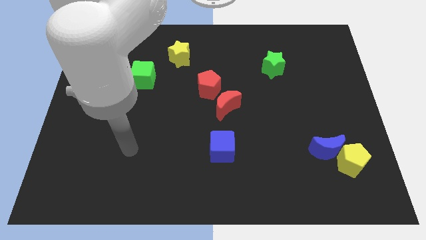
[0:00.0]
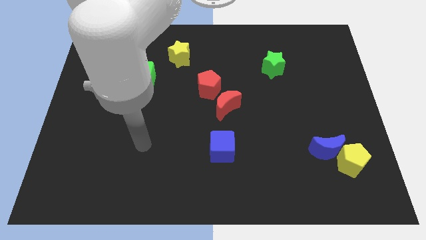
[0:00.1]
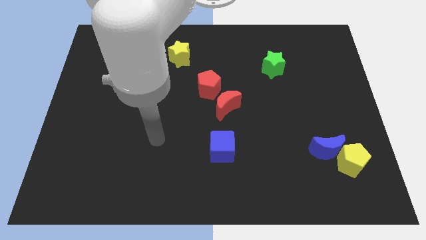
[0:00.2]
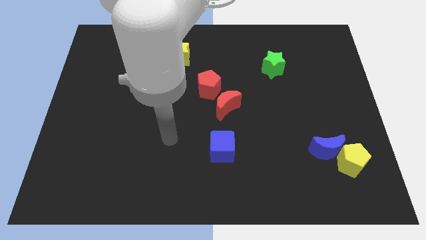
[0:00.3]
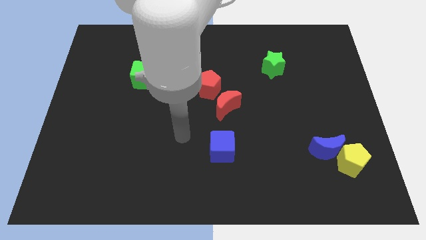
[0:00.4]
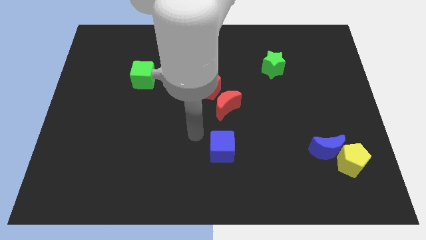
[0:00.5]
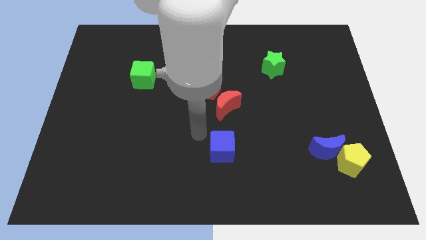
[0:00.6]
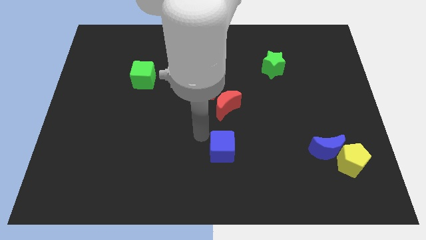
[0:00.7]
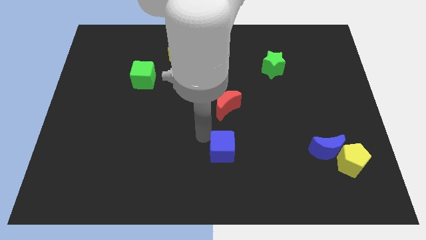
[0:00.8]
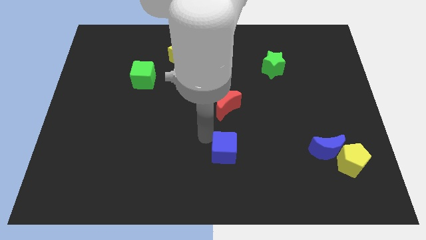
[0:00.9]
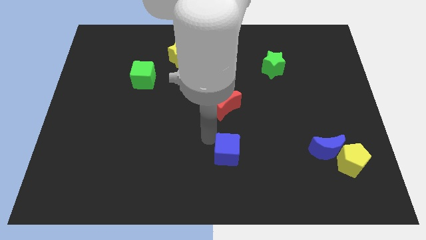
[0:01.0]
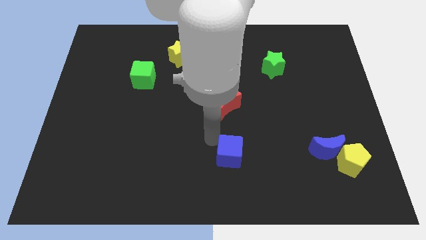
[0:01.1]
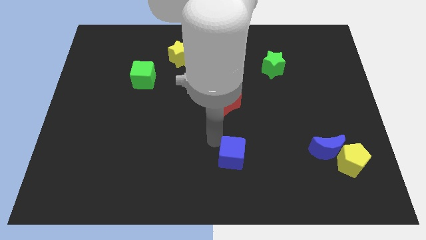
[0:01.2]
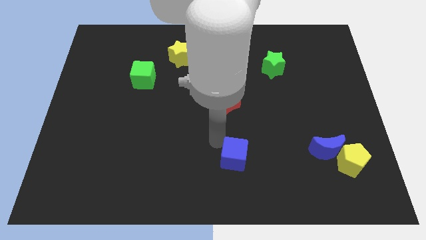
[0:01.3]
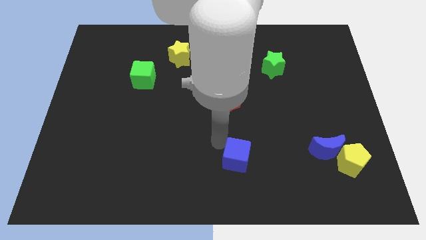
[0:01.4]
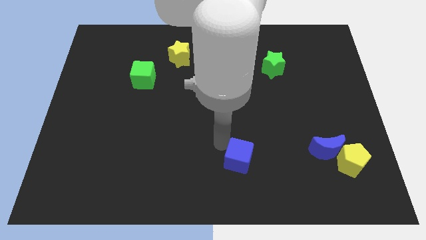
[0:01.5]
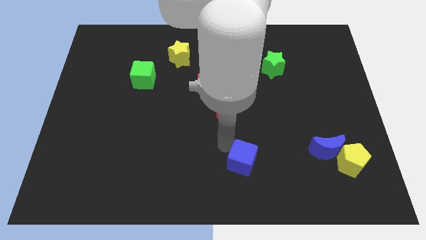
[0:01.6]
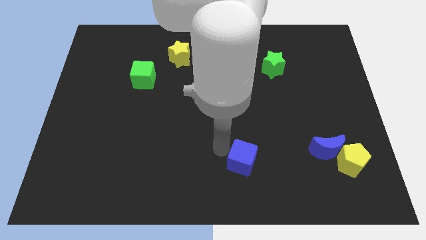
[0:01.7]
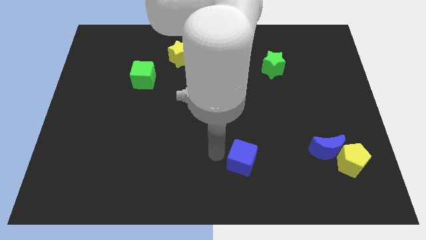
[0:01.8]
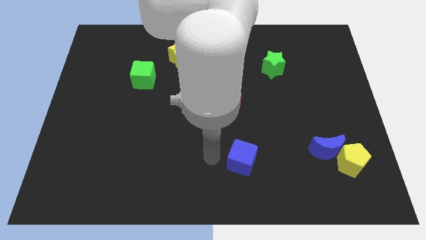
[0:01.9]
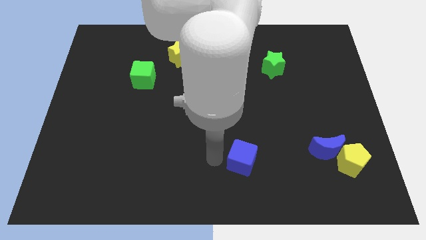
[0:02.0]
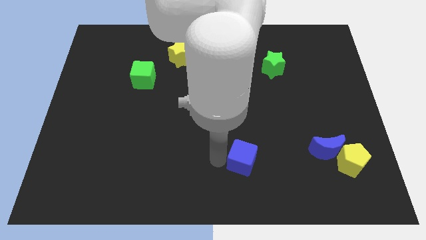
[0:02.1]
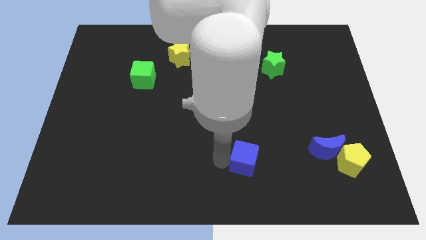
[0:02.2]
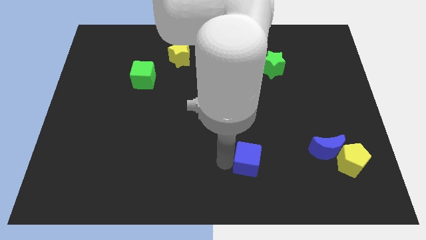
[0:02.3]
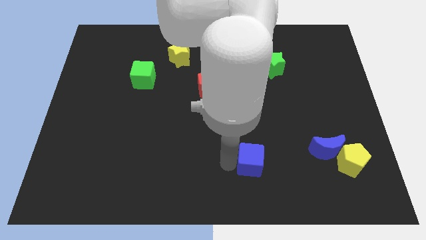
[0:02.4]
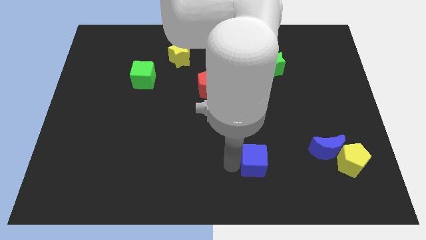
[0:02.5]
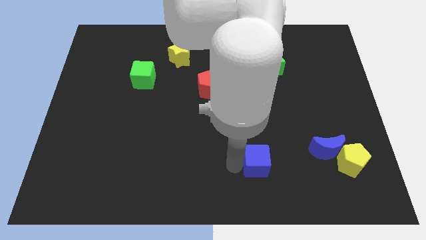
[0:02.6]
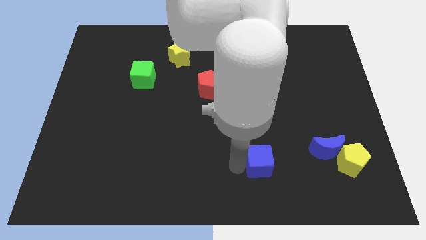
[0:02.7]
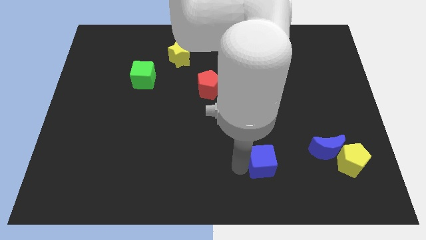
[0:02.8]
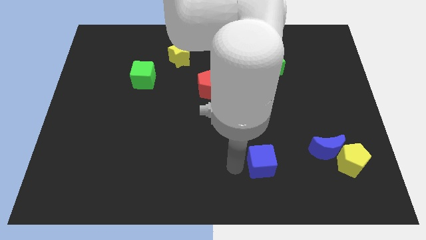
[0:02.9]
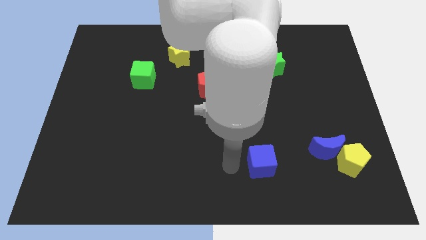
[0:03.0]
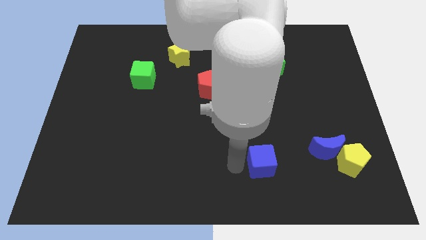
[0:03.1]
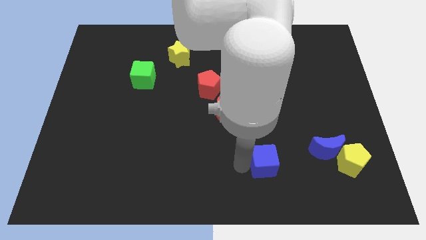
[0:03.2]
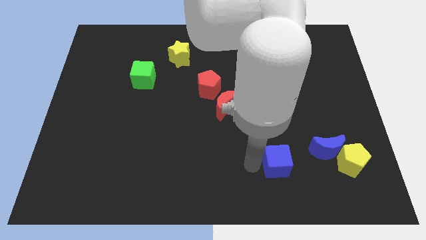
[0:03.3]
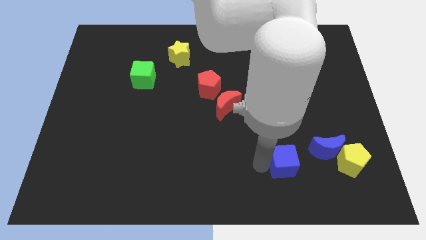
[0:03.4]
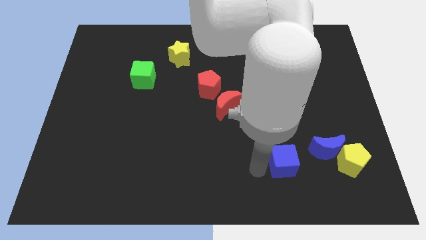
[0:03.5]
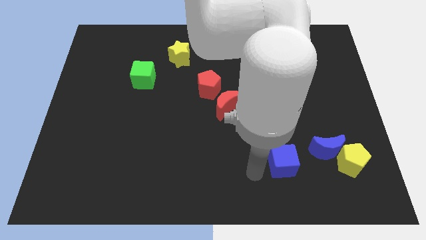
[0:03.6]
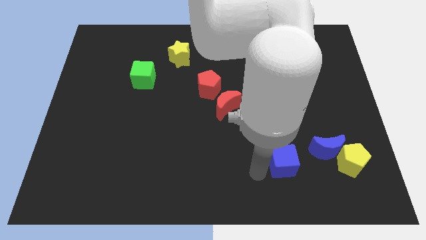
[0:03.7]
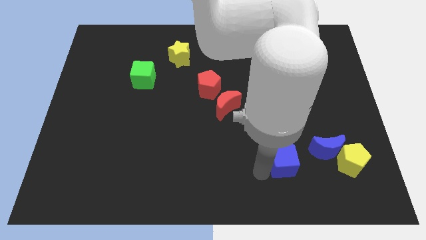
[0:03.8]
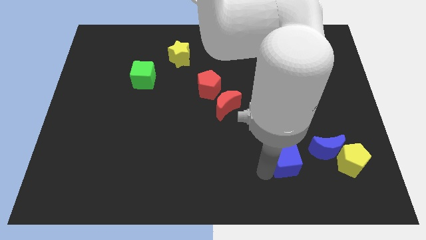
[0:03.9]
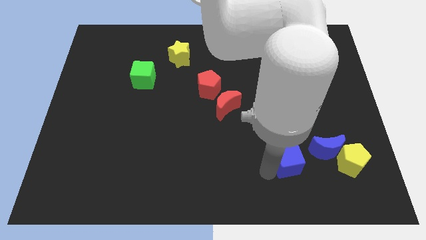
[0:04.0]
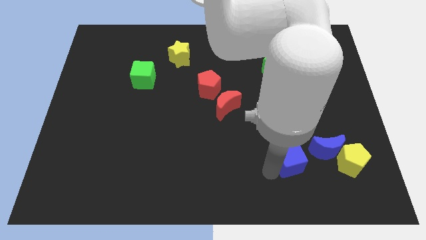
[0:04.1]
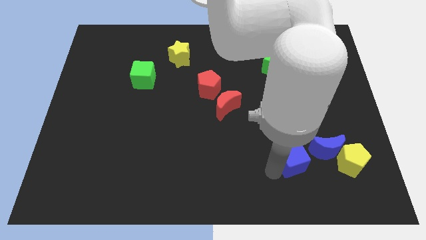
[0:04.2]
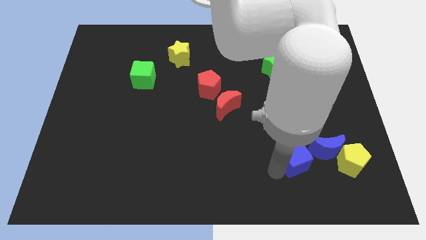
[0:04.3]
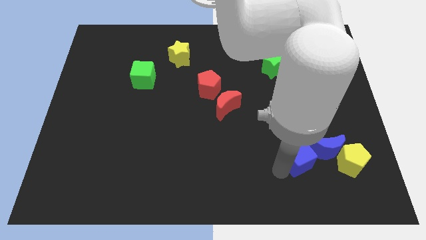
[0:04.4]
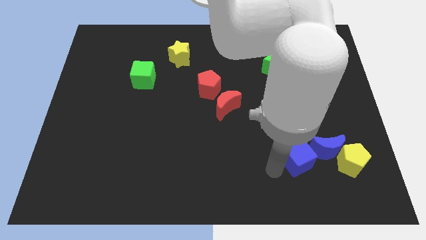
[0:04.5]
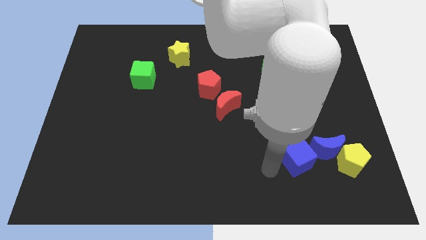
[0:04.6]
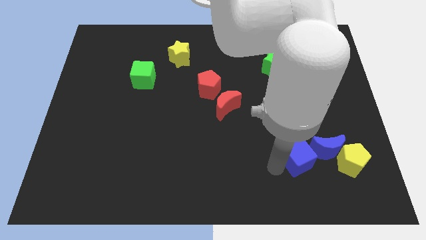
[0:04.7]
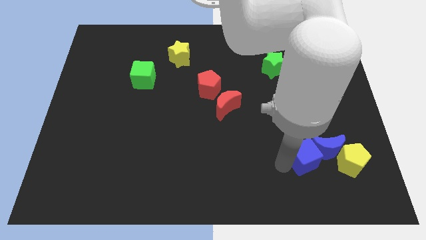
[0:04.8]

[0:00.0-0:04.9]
move the blue cube close to the blue moon

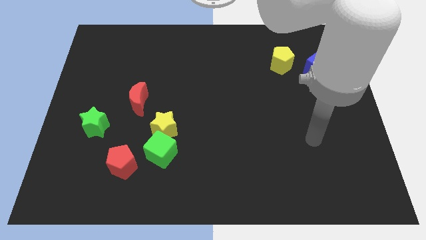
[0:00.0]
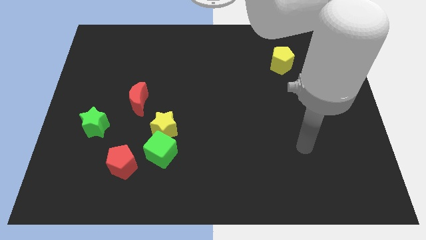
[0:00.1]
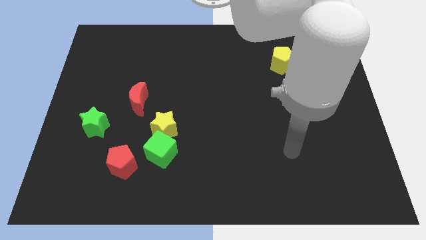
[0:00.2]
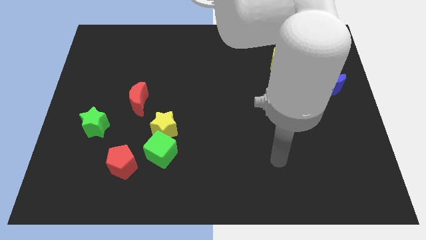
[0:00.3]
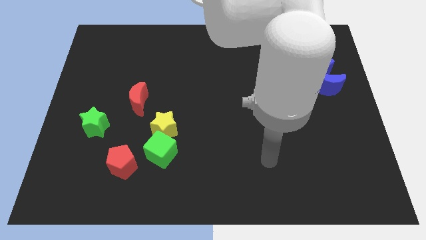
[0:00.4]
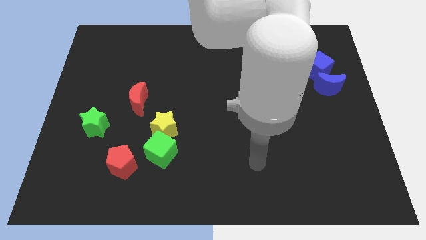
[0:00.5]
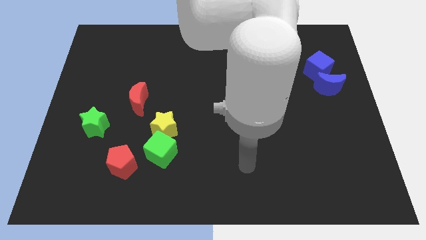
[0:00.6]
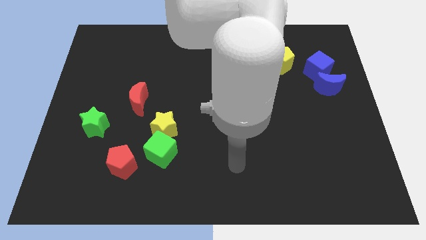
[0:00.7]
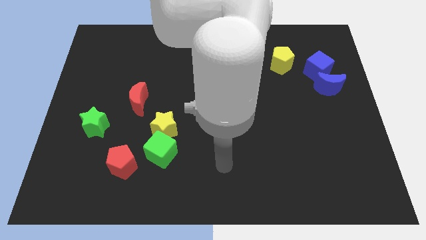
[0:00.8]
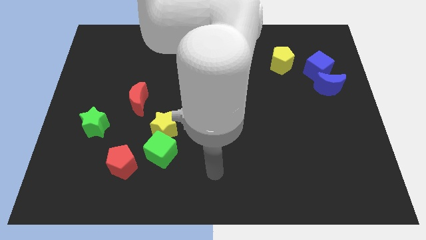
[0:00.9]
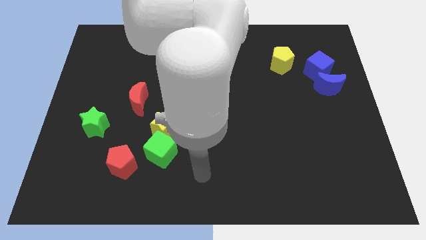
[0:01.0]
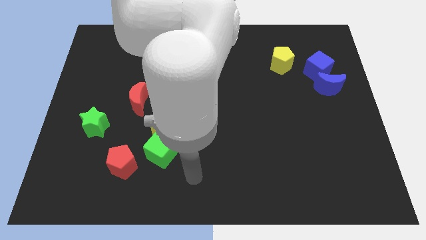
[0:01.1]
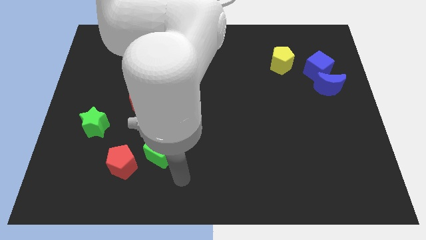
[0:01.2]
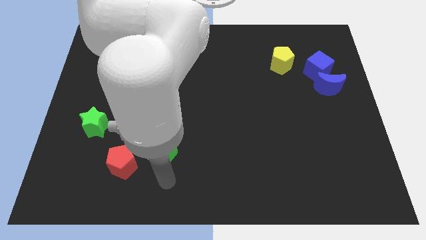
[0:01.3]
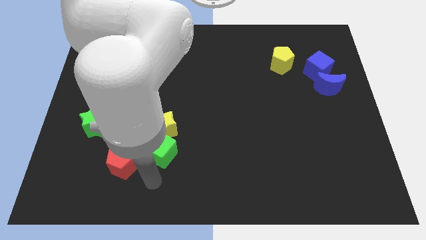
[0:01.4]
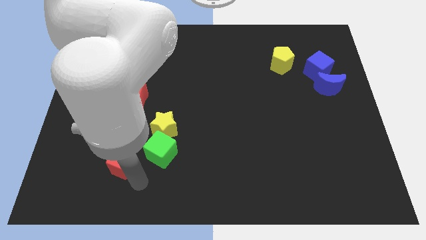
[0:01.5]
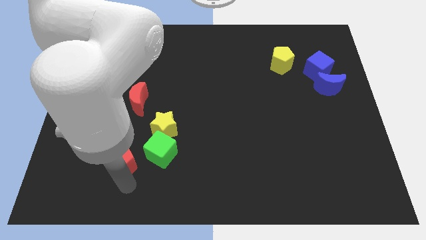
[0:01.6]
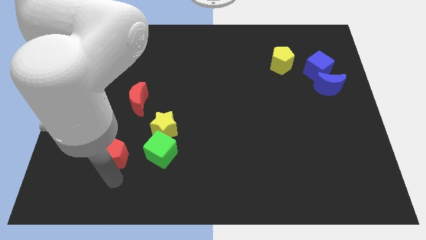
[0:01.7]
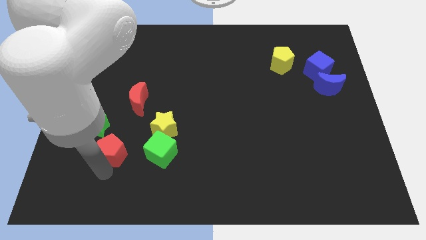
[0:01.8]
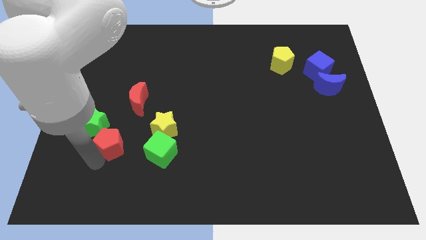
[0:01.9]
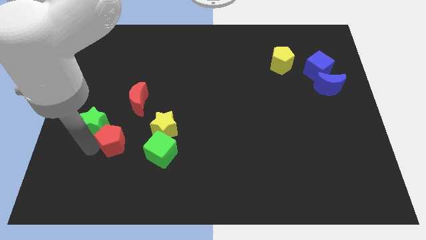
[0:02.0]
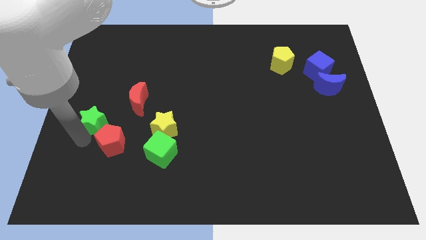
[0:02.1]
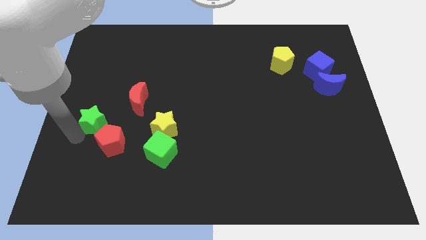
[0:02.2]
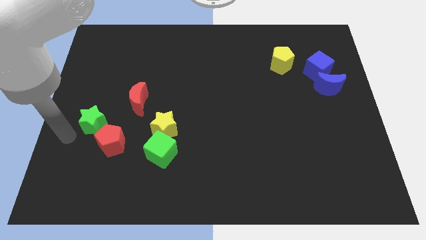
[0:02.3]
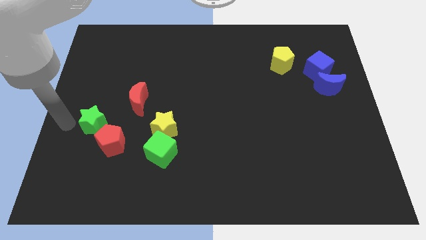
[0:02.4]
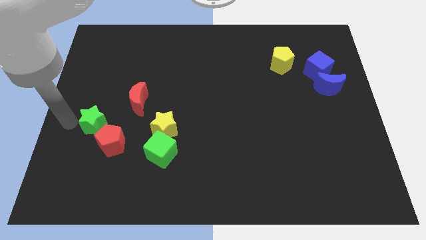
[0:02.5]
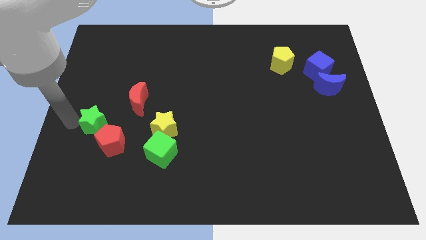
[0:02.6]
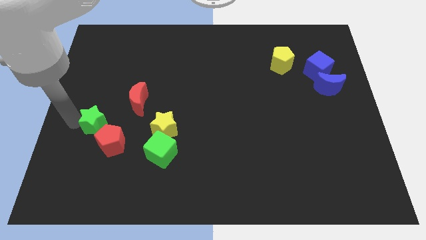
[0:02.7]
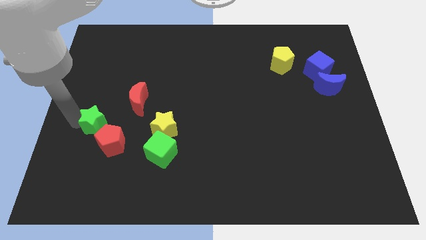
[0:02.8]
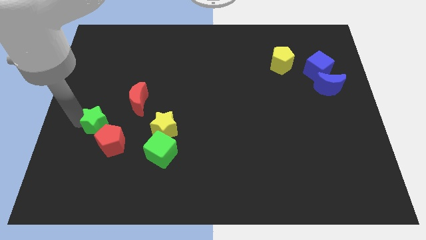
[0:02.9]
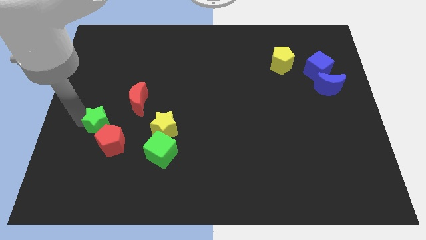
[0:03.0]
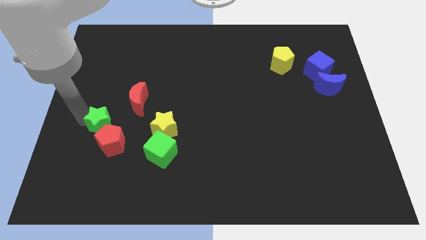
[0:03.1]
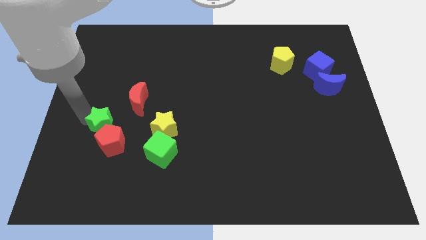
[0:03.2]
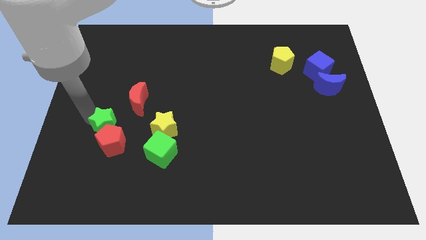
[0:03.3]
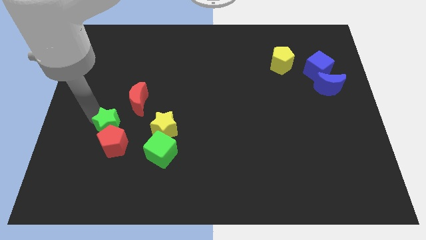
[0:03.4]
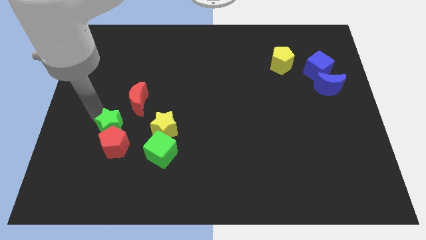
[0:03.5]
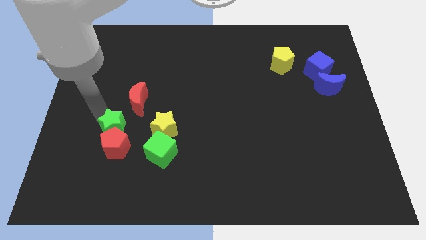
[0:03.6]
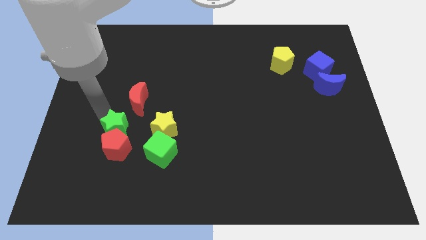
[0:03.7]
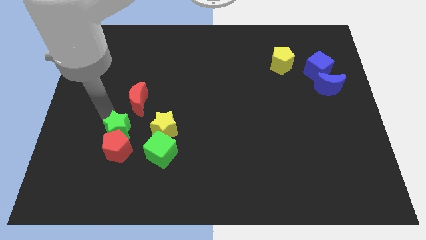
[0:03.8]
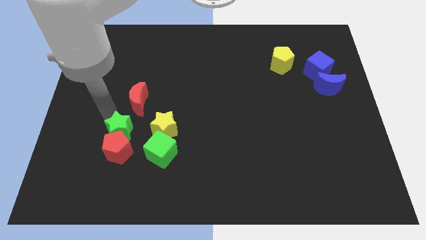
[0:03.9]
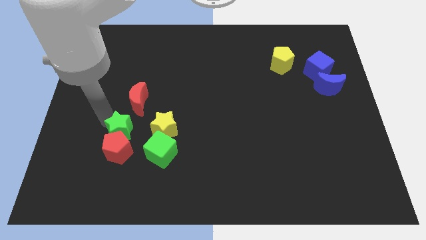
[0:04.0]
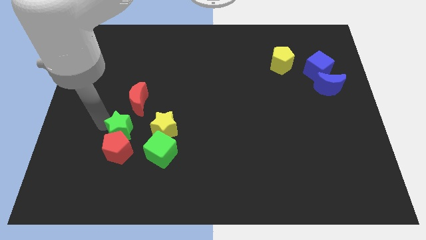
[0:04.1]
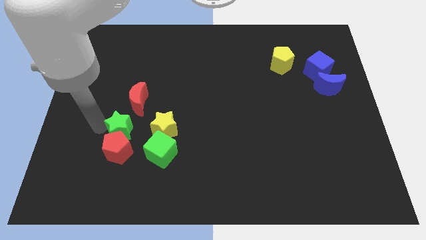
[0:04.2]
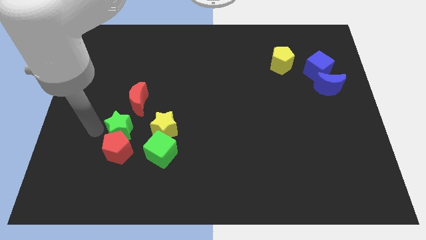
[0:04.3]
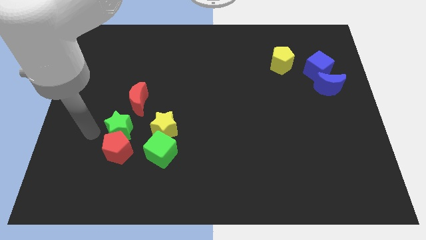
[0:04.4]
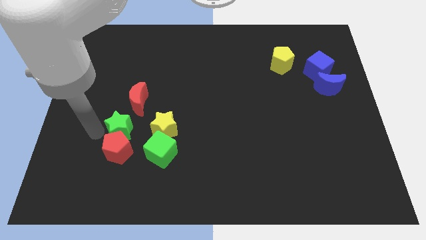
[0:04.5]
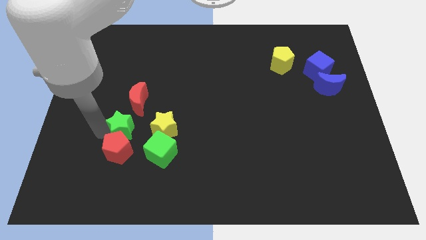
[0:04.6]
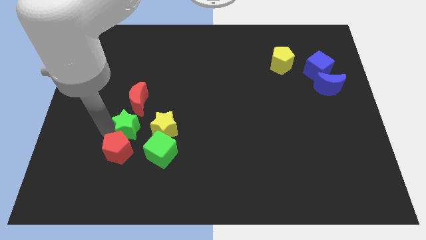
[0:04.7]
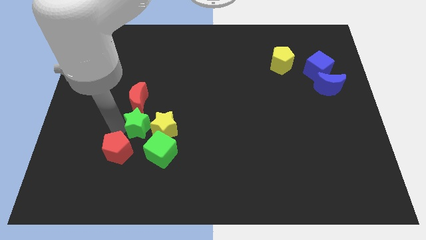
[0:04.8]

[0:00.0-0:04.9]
move the green star next to the yellow star
